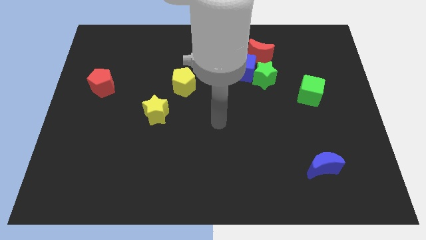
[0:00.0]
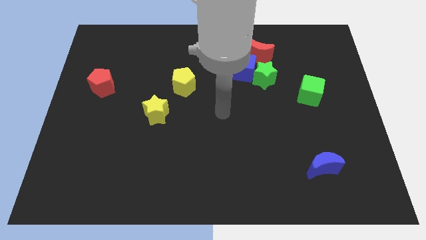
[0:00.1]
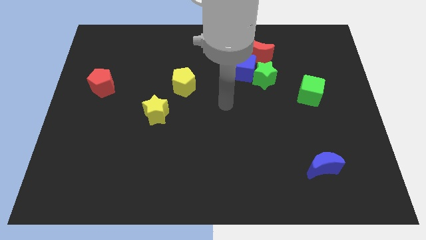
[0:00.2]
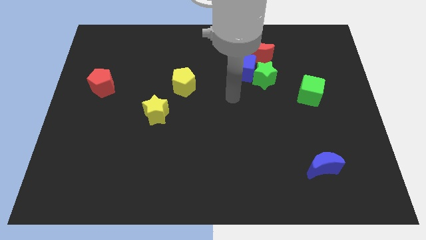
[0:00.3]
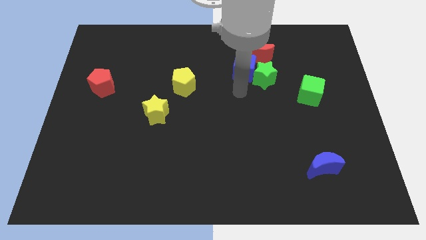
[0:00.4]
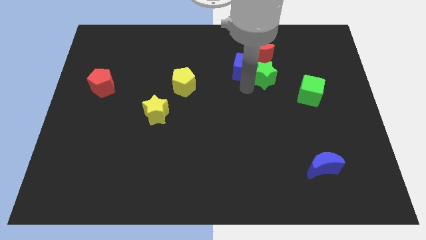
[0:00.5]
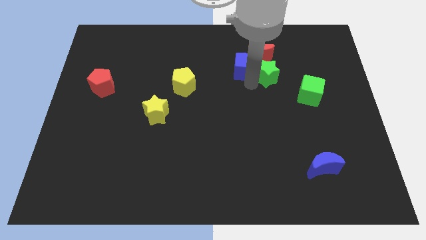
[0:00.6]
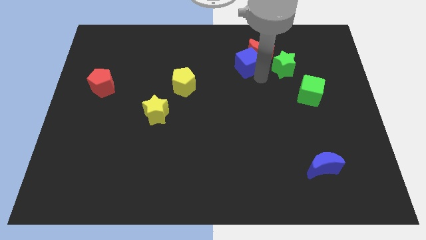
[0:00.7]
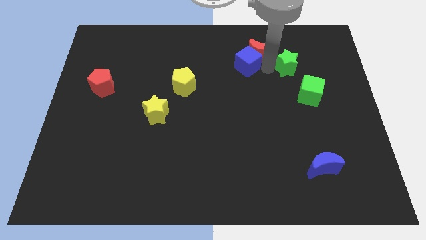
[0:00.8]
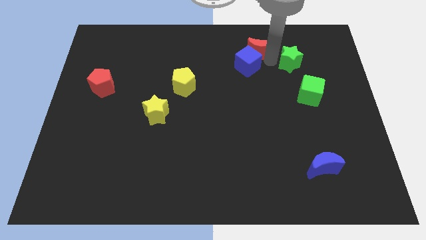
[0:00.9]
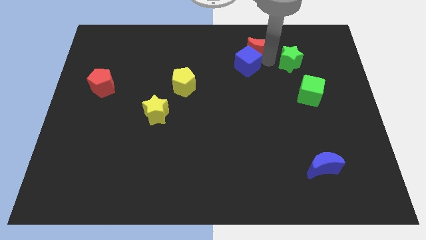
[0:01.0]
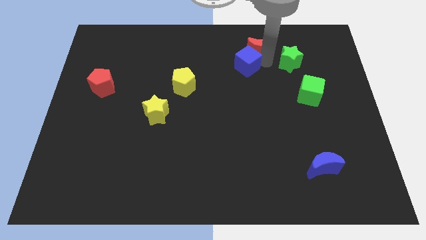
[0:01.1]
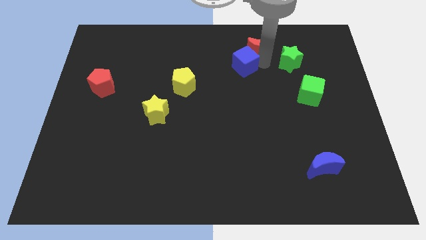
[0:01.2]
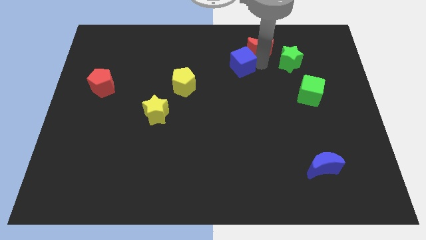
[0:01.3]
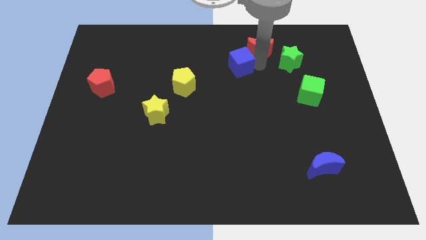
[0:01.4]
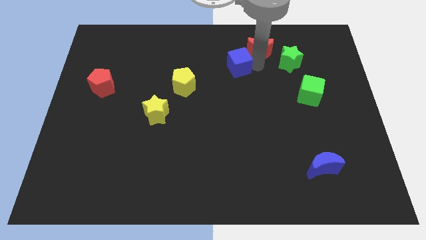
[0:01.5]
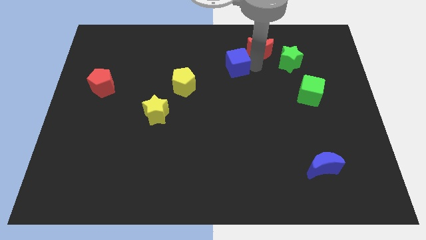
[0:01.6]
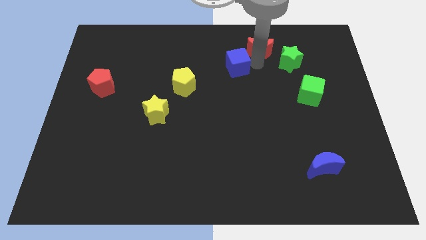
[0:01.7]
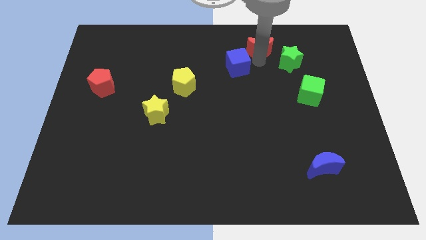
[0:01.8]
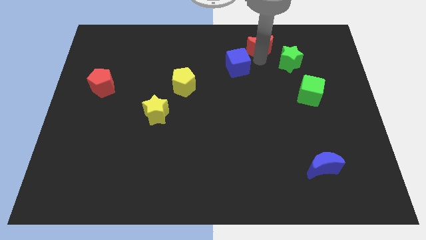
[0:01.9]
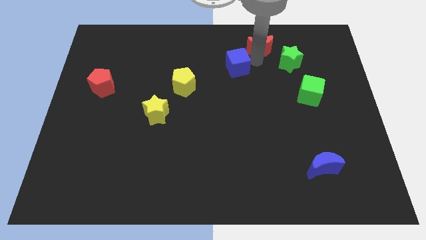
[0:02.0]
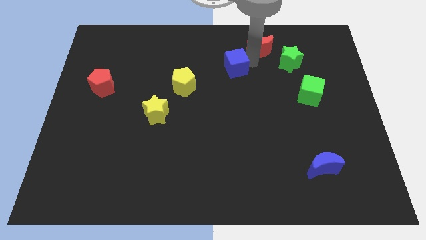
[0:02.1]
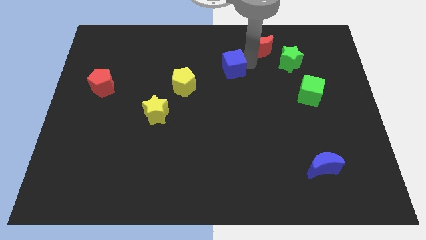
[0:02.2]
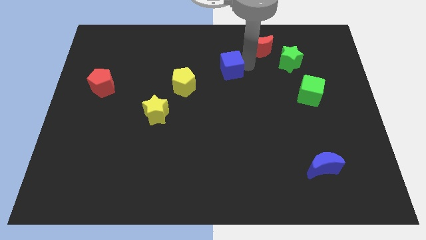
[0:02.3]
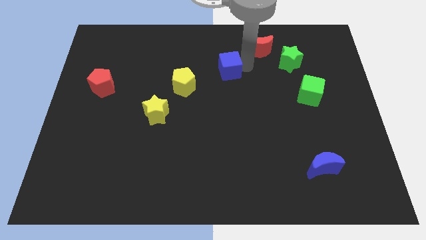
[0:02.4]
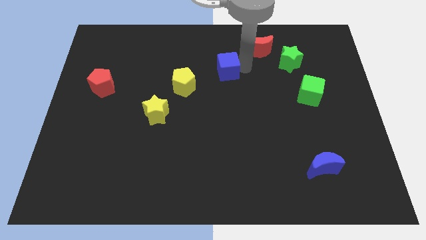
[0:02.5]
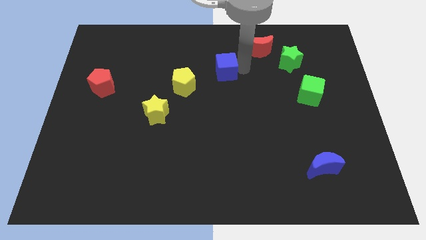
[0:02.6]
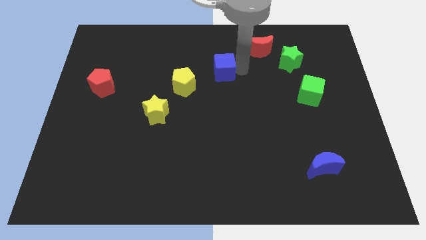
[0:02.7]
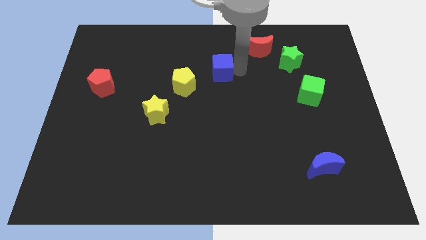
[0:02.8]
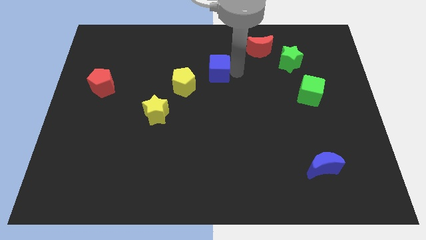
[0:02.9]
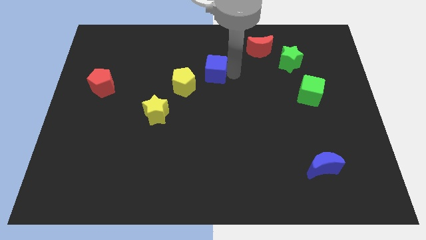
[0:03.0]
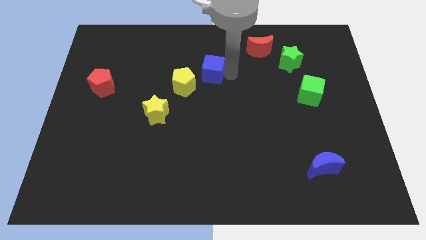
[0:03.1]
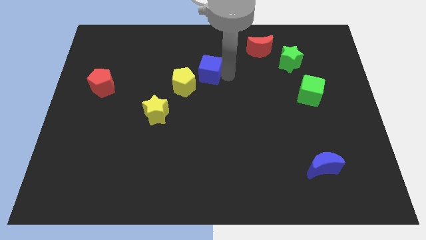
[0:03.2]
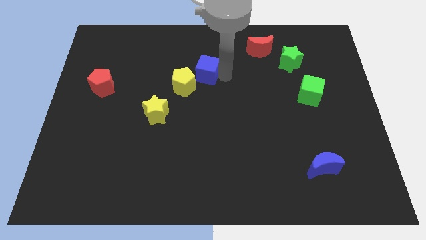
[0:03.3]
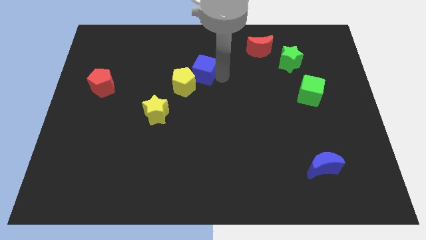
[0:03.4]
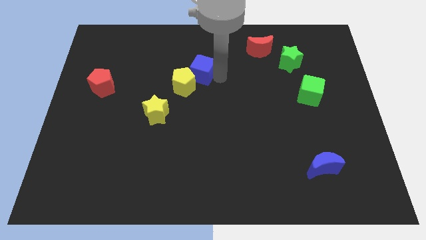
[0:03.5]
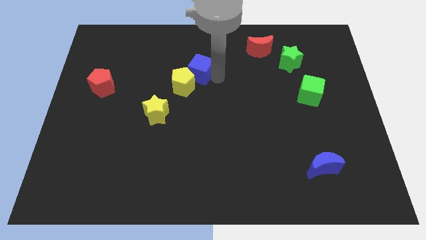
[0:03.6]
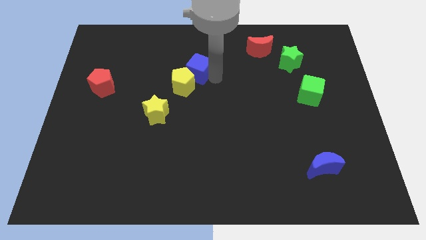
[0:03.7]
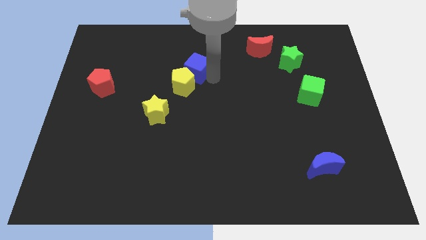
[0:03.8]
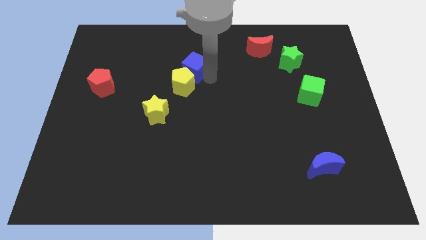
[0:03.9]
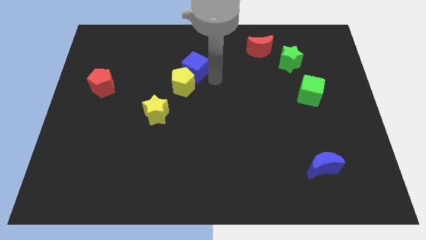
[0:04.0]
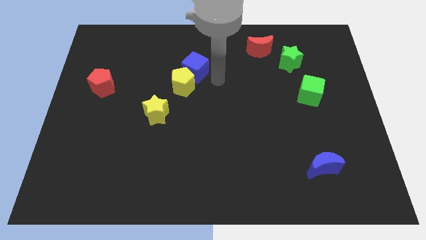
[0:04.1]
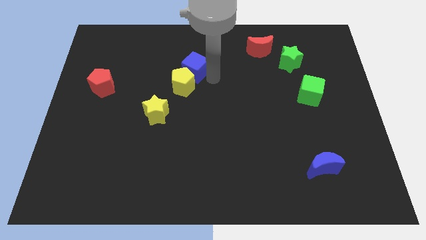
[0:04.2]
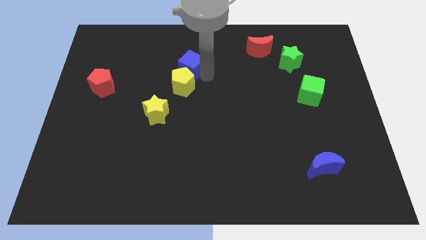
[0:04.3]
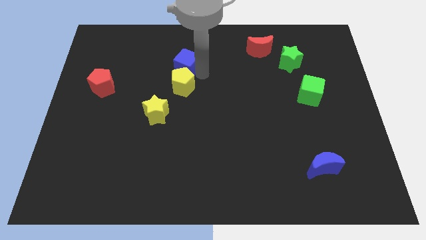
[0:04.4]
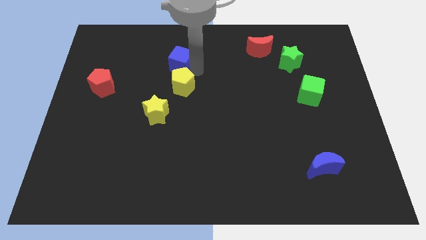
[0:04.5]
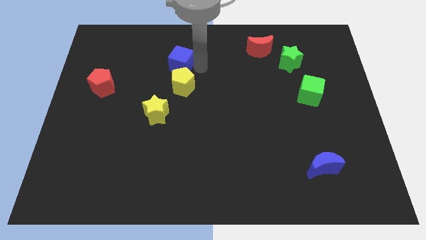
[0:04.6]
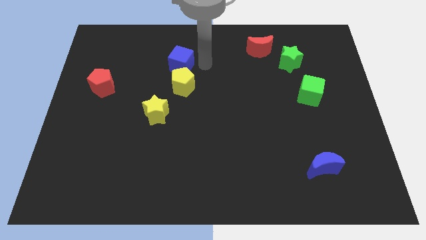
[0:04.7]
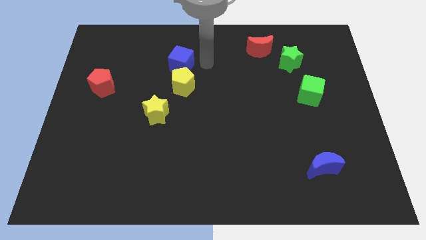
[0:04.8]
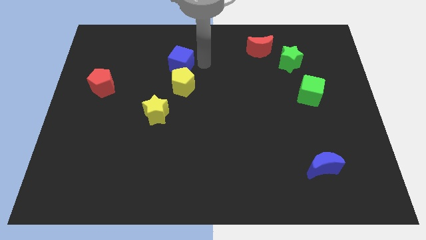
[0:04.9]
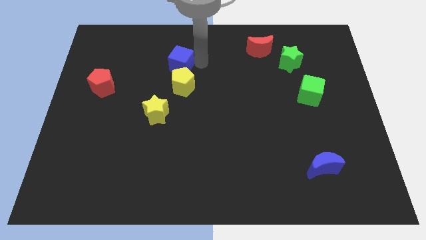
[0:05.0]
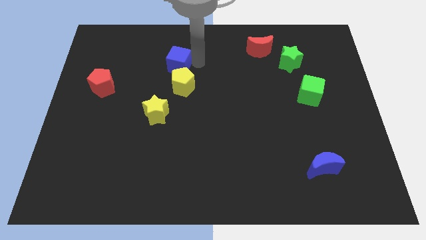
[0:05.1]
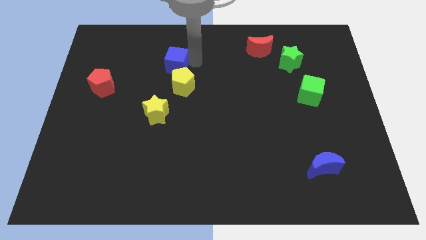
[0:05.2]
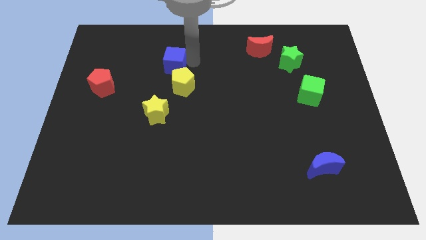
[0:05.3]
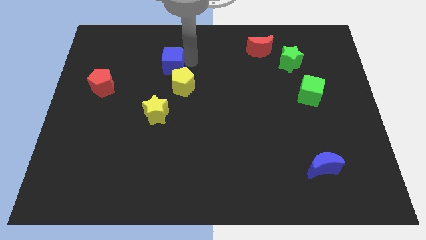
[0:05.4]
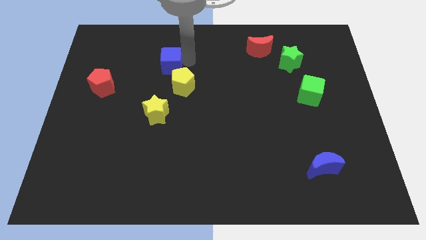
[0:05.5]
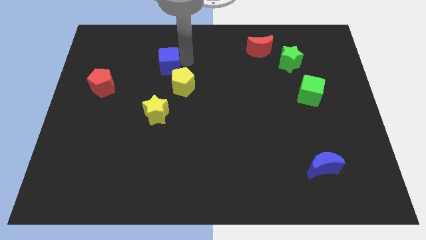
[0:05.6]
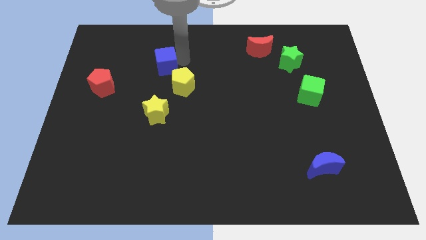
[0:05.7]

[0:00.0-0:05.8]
slide the blue cube left

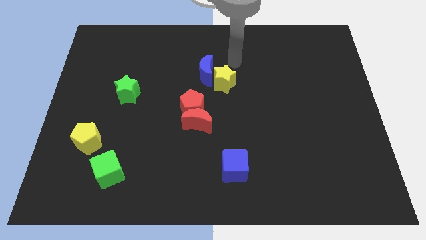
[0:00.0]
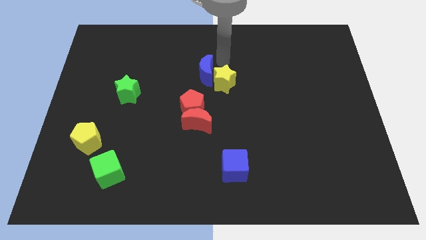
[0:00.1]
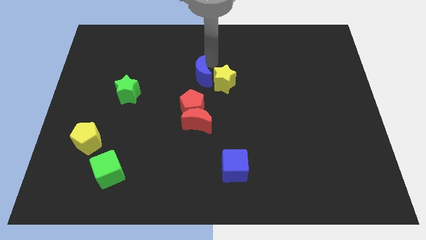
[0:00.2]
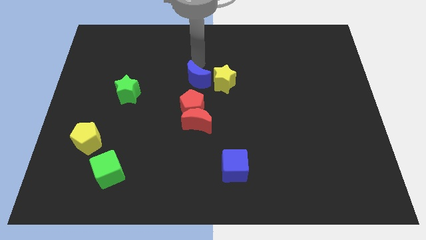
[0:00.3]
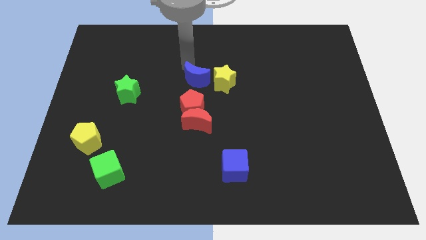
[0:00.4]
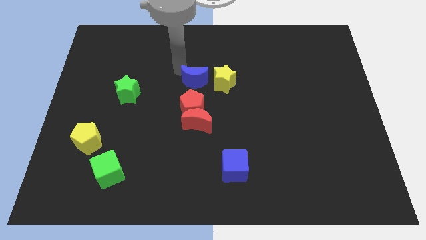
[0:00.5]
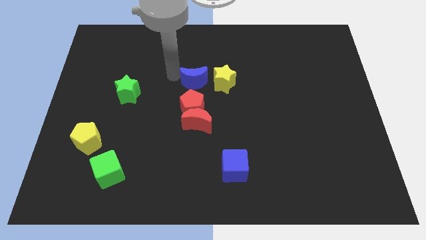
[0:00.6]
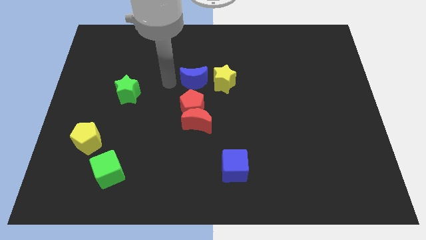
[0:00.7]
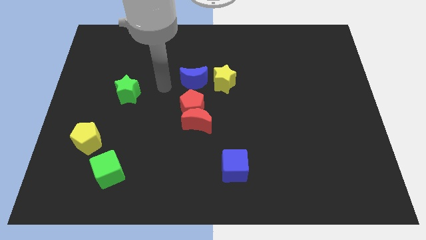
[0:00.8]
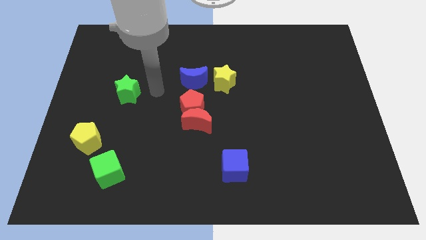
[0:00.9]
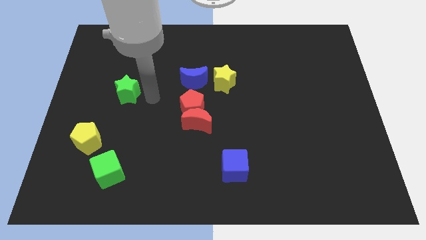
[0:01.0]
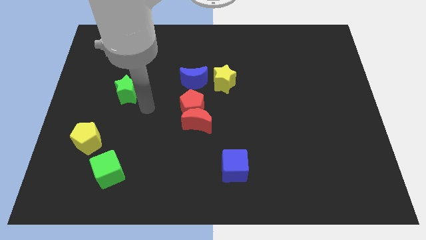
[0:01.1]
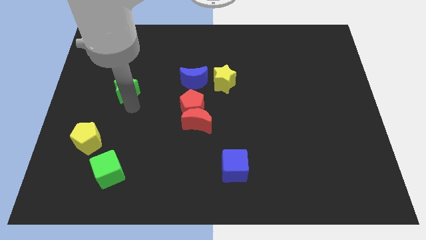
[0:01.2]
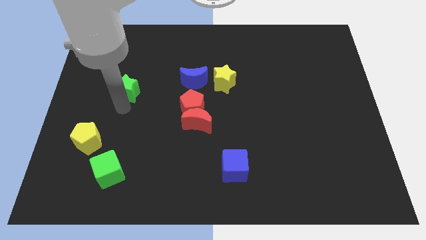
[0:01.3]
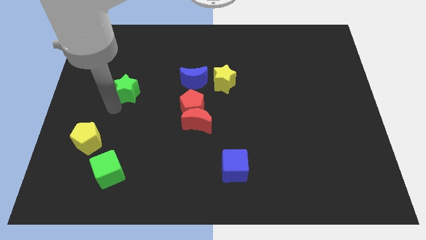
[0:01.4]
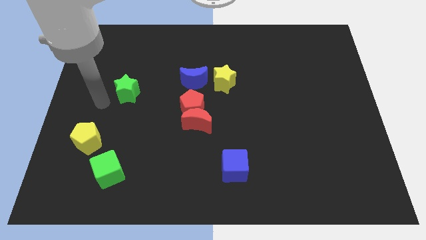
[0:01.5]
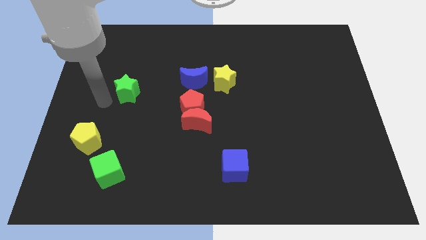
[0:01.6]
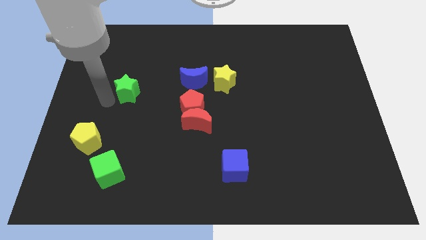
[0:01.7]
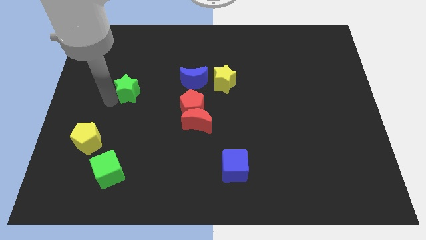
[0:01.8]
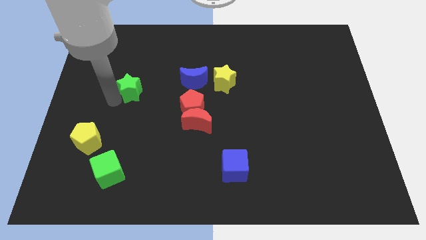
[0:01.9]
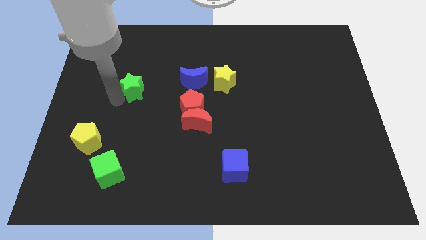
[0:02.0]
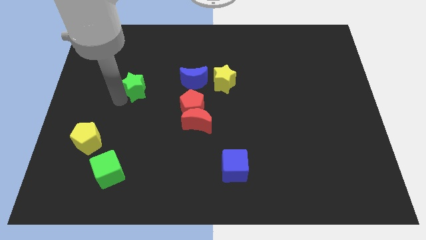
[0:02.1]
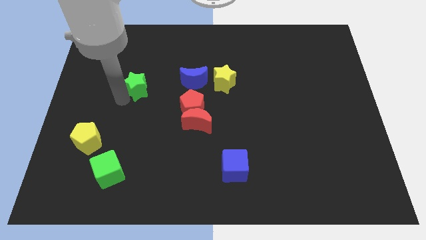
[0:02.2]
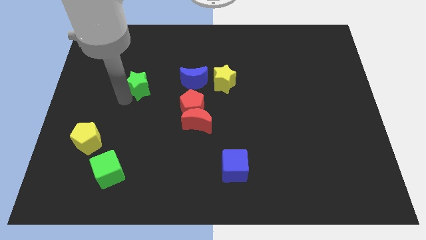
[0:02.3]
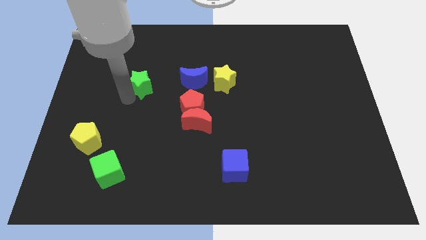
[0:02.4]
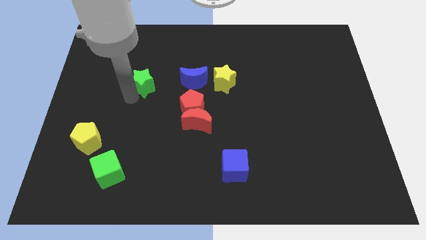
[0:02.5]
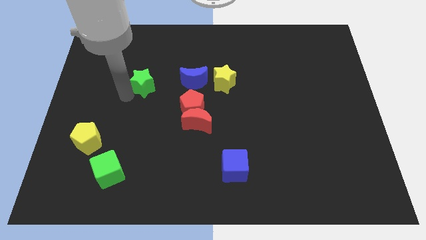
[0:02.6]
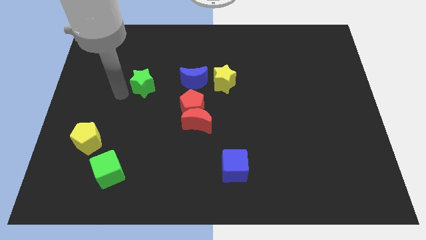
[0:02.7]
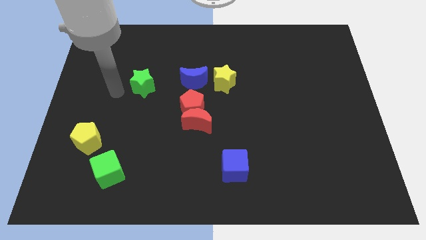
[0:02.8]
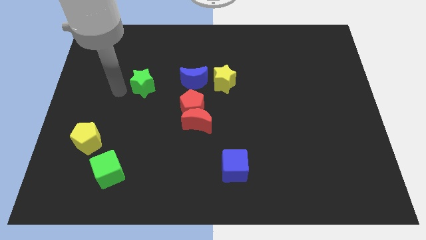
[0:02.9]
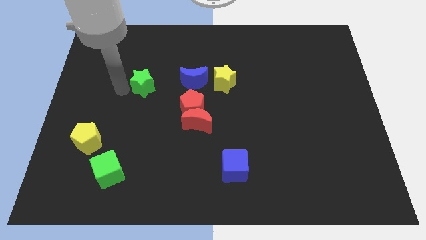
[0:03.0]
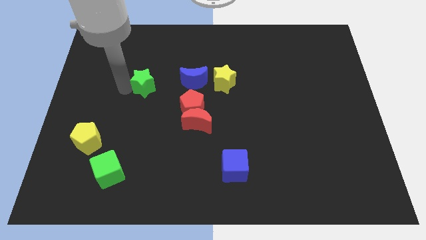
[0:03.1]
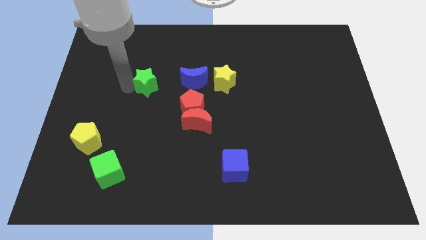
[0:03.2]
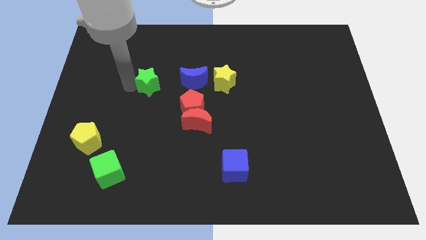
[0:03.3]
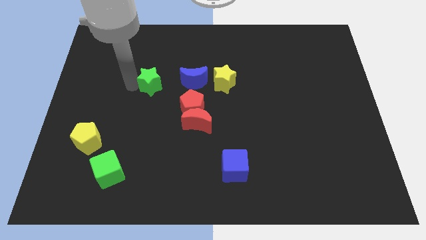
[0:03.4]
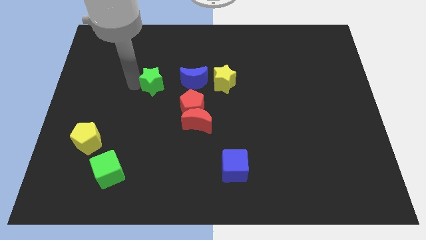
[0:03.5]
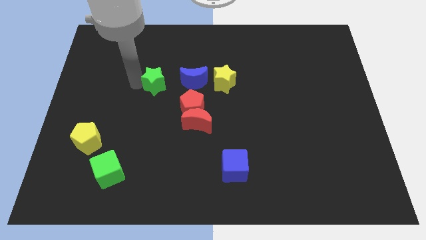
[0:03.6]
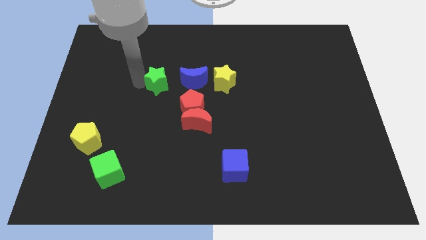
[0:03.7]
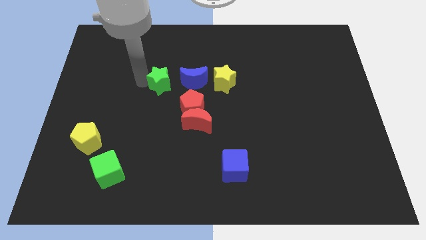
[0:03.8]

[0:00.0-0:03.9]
slightly slide the green star right
